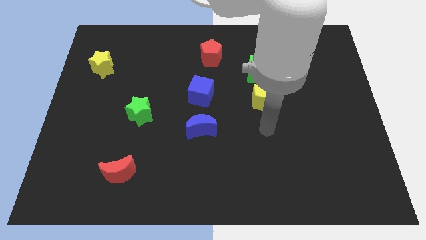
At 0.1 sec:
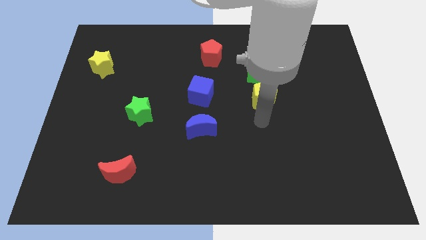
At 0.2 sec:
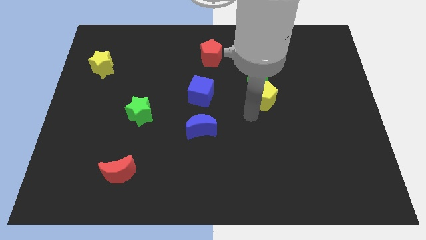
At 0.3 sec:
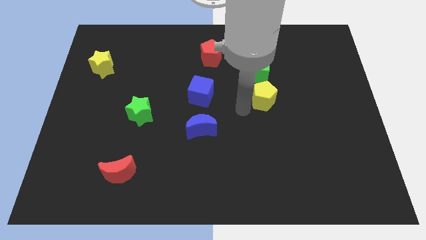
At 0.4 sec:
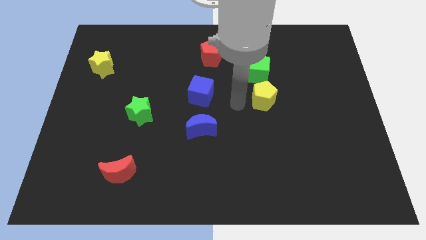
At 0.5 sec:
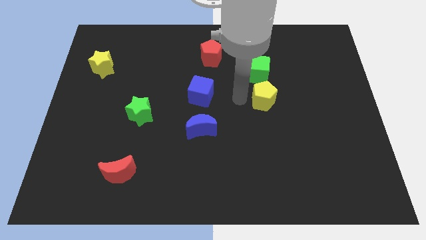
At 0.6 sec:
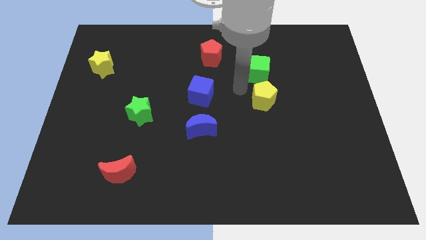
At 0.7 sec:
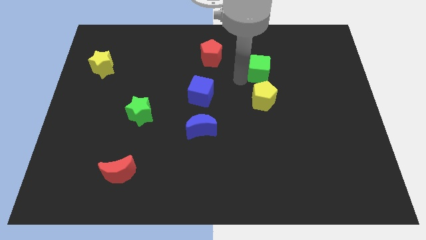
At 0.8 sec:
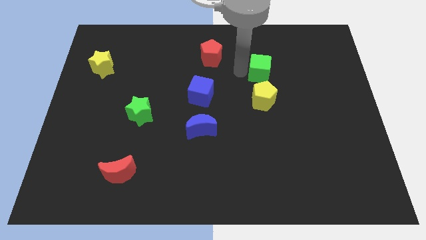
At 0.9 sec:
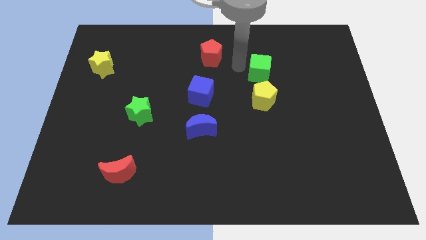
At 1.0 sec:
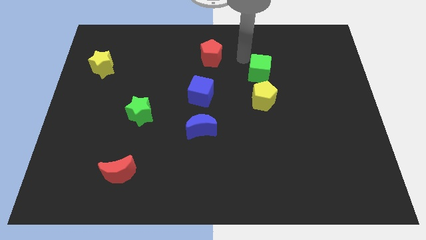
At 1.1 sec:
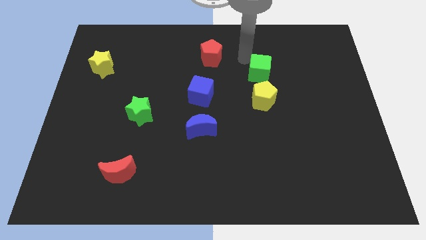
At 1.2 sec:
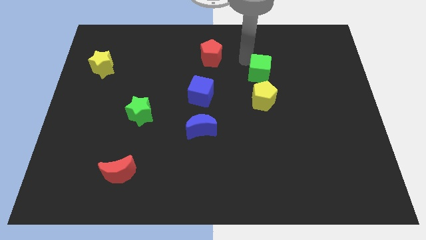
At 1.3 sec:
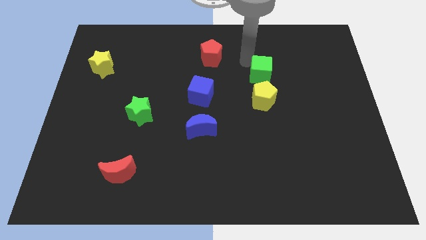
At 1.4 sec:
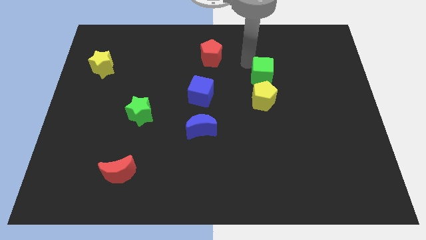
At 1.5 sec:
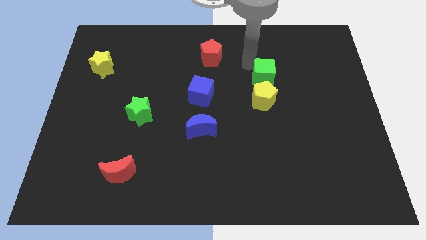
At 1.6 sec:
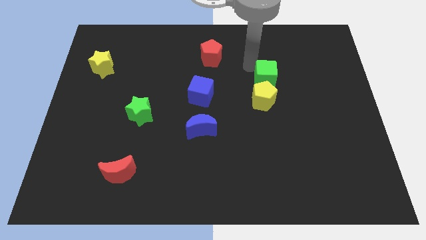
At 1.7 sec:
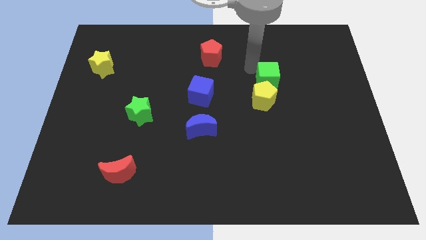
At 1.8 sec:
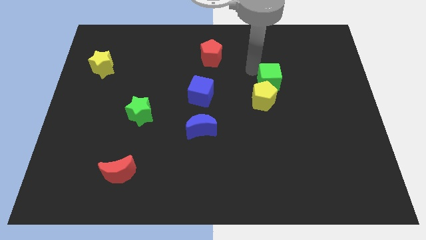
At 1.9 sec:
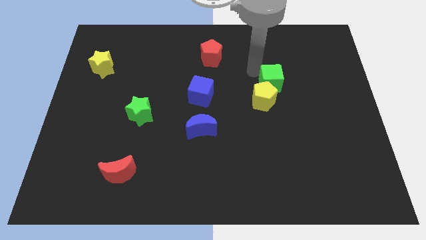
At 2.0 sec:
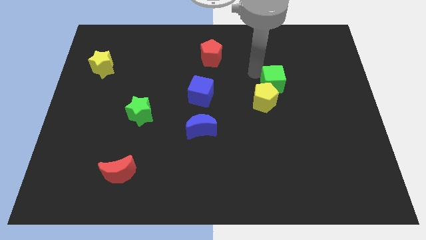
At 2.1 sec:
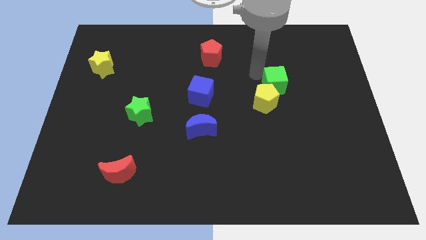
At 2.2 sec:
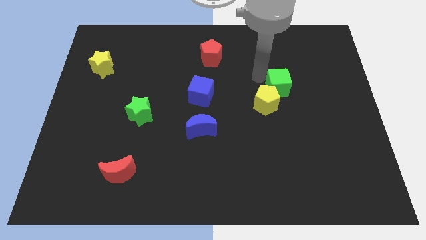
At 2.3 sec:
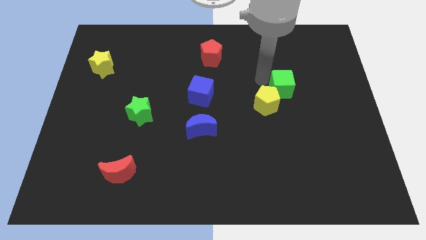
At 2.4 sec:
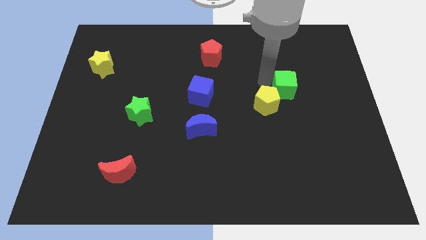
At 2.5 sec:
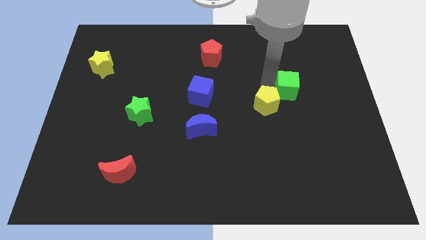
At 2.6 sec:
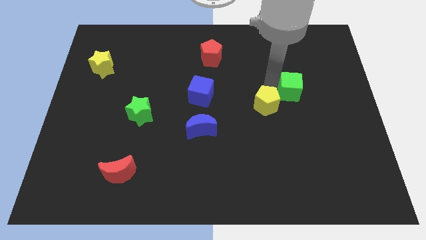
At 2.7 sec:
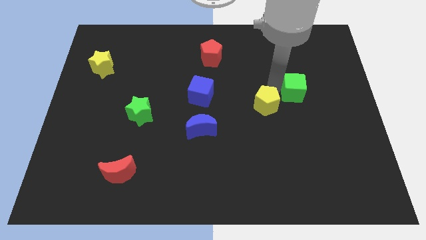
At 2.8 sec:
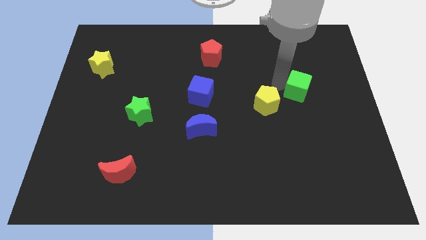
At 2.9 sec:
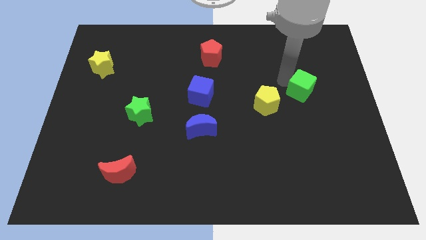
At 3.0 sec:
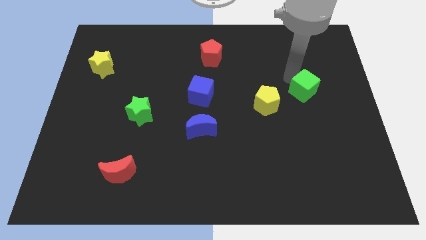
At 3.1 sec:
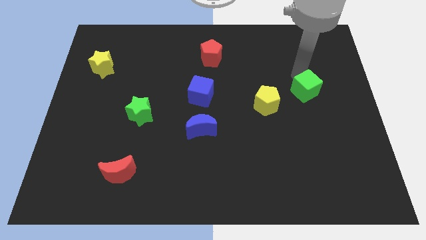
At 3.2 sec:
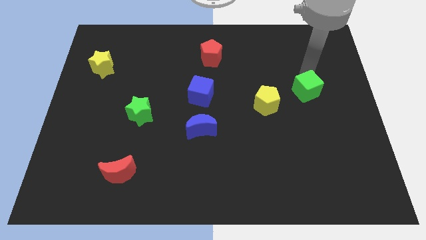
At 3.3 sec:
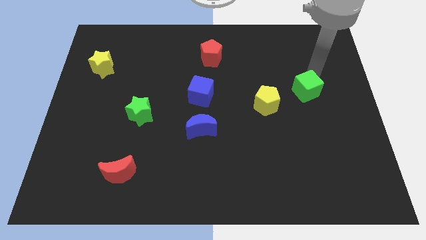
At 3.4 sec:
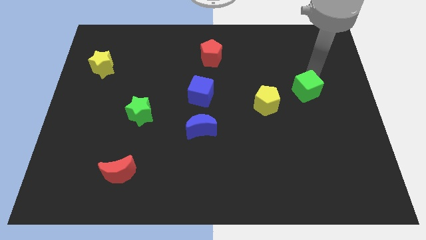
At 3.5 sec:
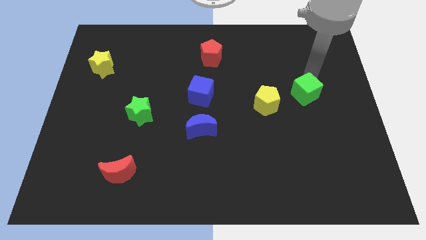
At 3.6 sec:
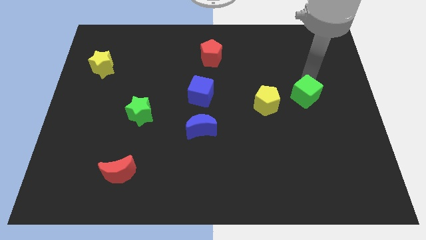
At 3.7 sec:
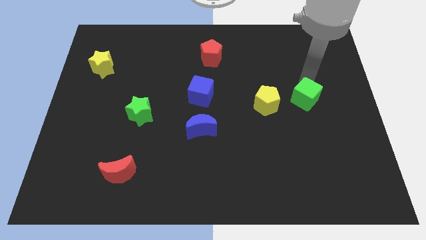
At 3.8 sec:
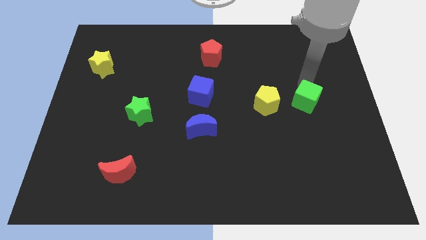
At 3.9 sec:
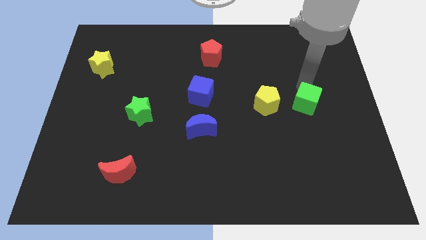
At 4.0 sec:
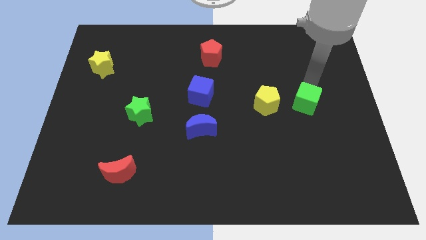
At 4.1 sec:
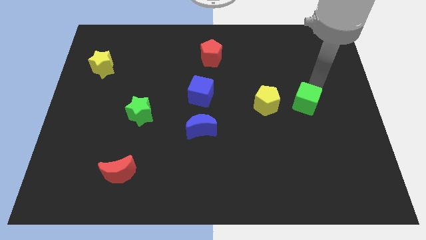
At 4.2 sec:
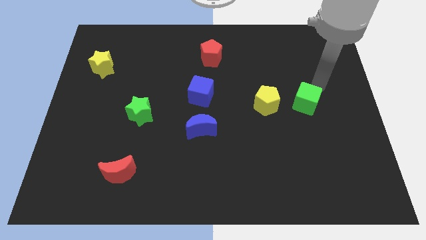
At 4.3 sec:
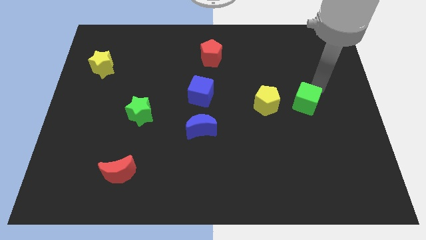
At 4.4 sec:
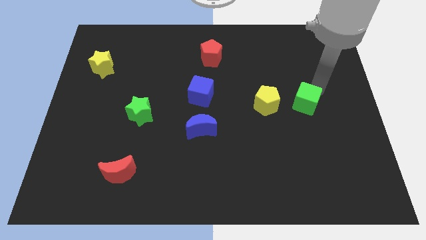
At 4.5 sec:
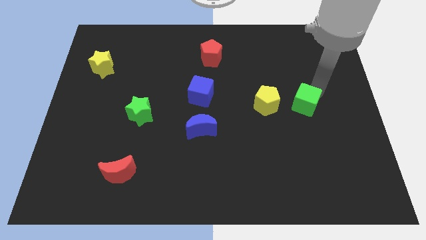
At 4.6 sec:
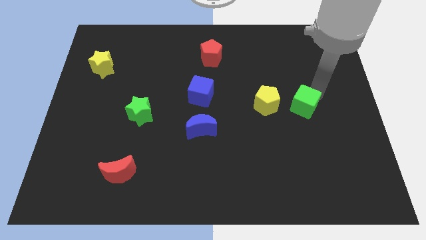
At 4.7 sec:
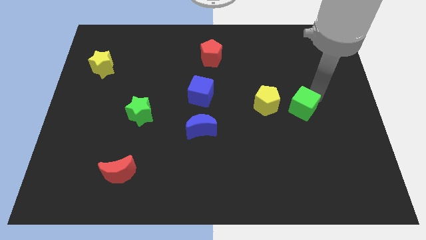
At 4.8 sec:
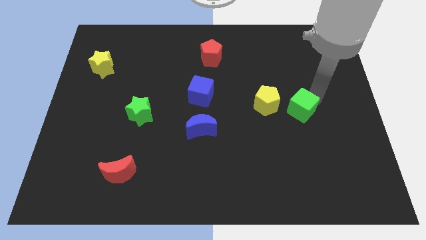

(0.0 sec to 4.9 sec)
slide the green cube to the bottom right of the yellow pentagon

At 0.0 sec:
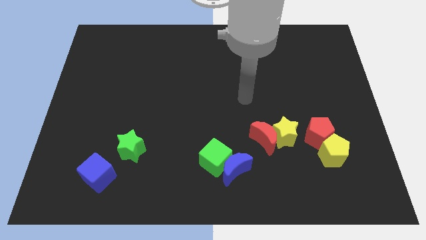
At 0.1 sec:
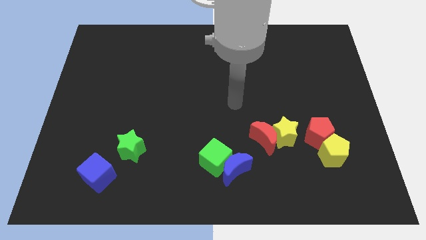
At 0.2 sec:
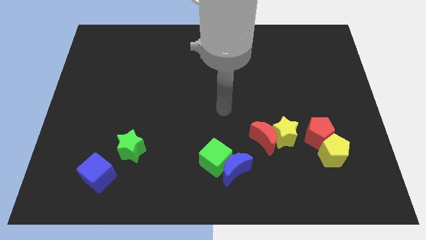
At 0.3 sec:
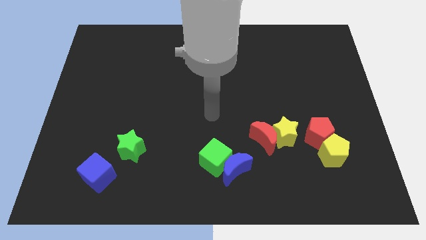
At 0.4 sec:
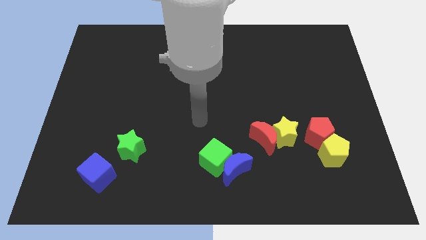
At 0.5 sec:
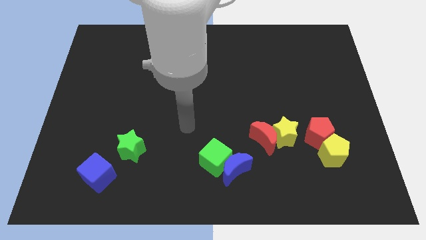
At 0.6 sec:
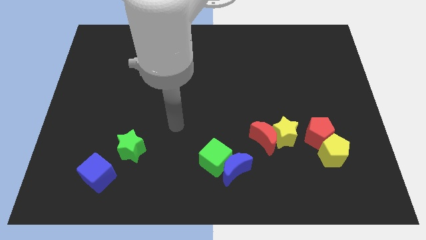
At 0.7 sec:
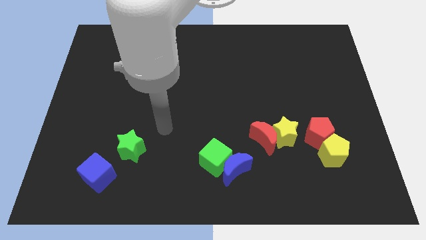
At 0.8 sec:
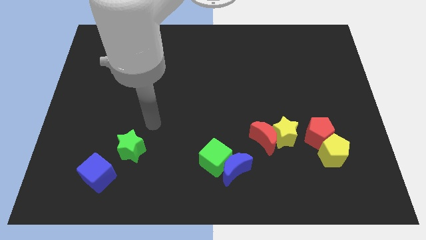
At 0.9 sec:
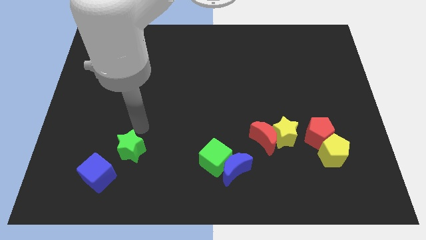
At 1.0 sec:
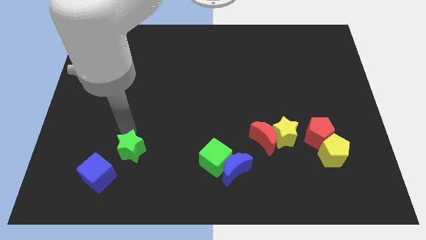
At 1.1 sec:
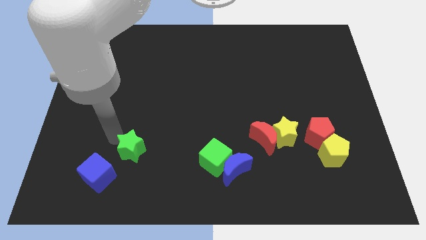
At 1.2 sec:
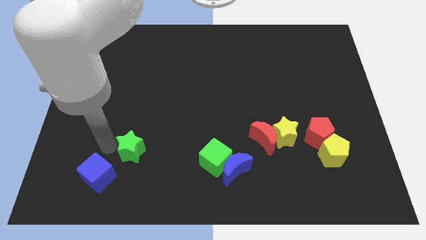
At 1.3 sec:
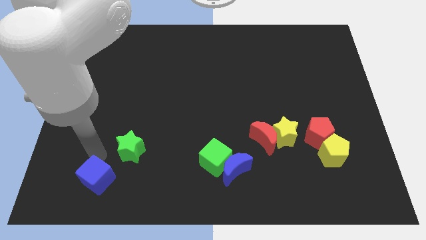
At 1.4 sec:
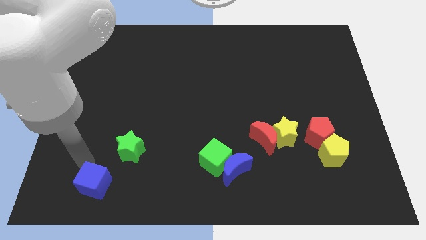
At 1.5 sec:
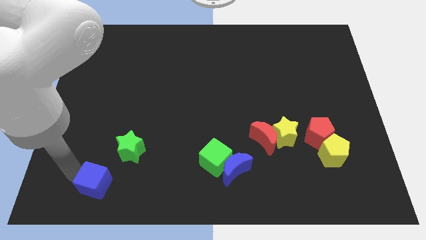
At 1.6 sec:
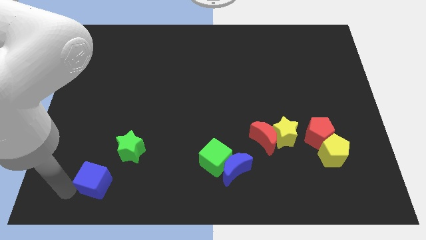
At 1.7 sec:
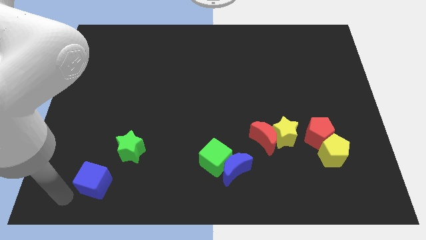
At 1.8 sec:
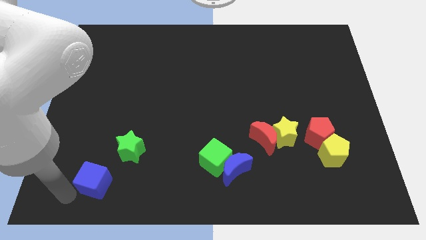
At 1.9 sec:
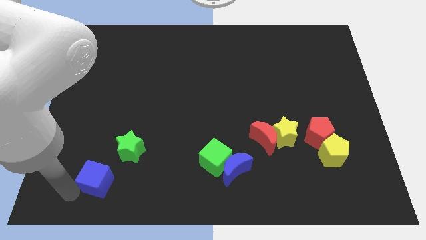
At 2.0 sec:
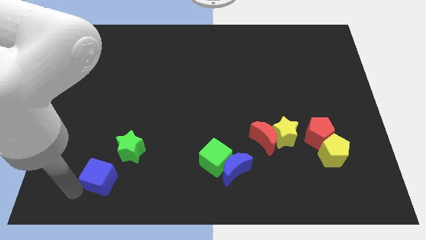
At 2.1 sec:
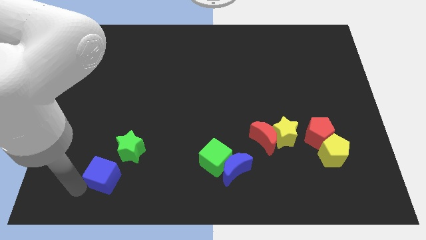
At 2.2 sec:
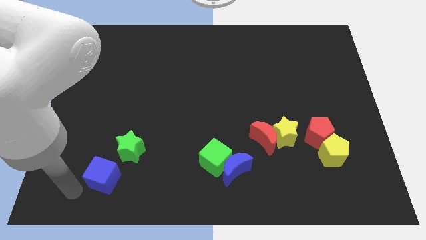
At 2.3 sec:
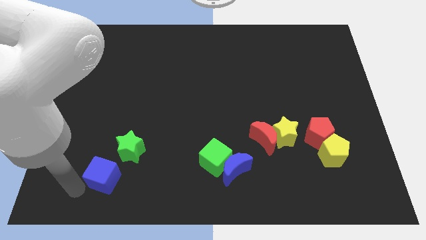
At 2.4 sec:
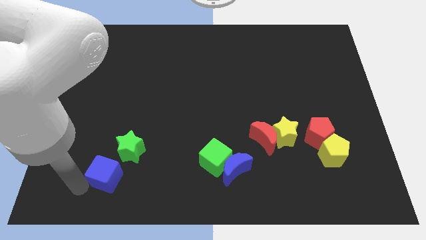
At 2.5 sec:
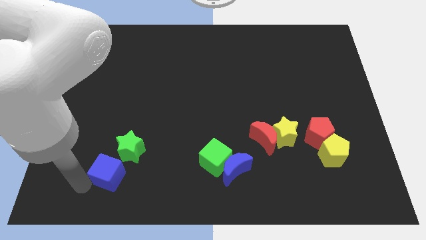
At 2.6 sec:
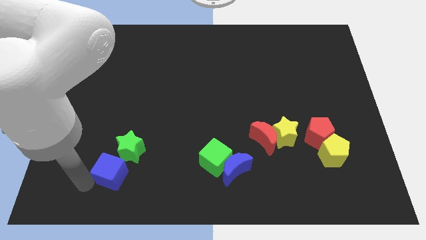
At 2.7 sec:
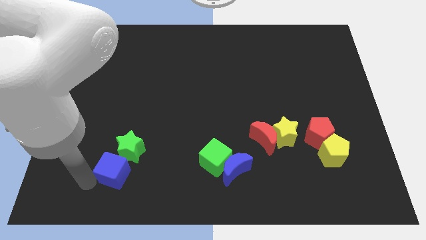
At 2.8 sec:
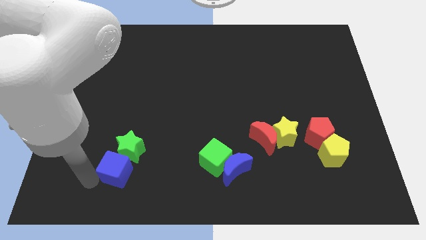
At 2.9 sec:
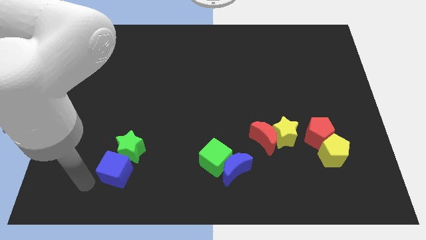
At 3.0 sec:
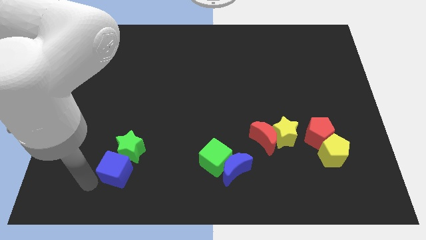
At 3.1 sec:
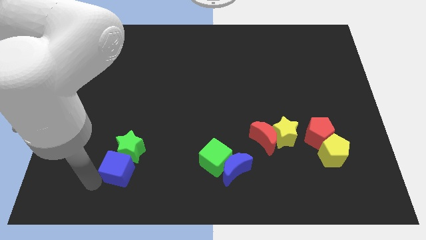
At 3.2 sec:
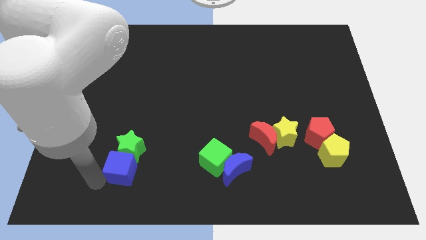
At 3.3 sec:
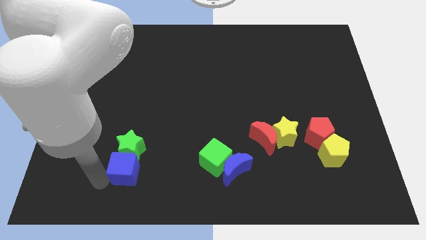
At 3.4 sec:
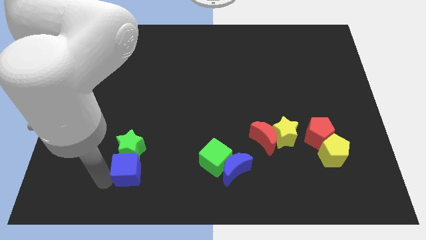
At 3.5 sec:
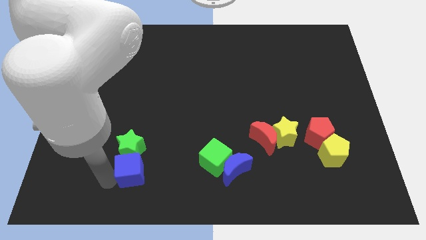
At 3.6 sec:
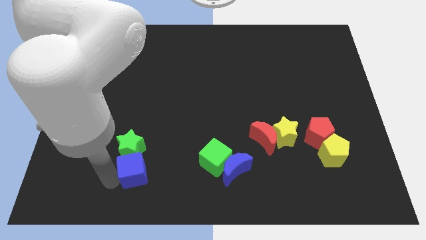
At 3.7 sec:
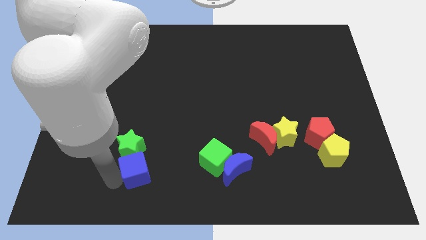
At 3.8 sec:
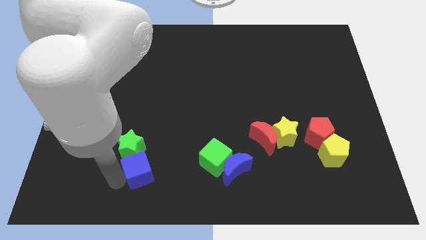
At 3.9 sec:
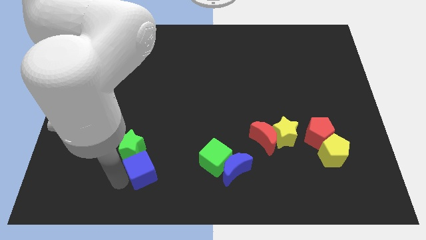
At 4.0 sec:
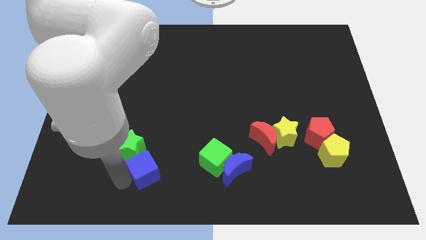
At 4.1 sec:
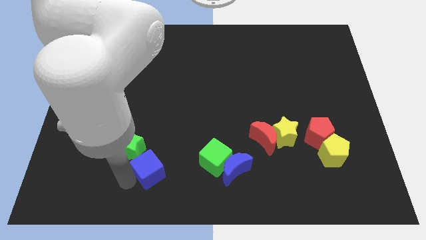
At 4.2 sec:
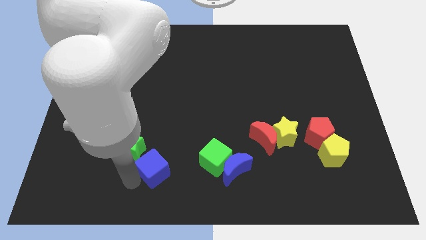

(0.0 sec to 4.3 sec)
move the blue cube to the right of the green star
